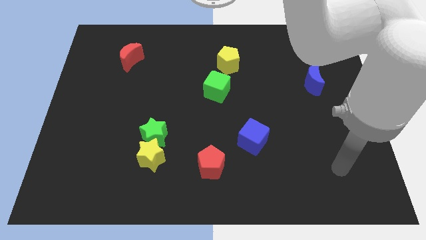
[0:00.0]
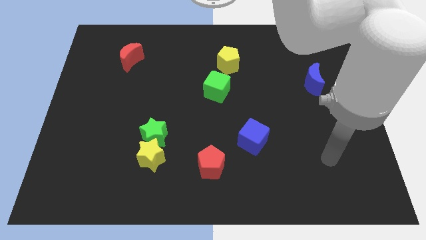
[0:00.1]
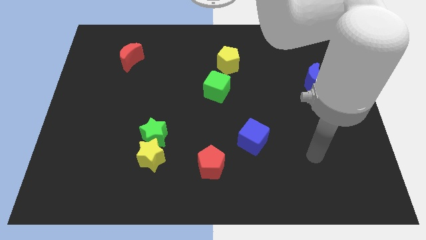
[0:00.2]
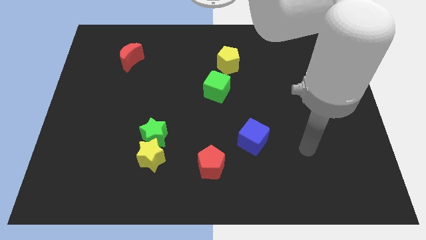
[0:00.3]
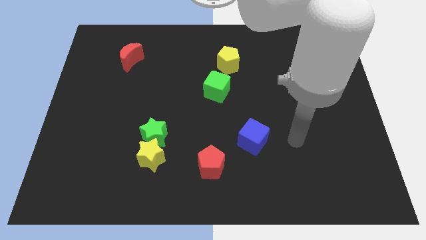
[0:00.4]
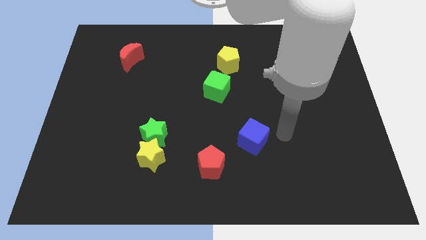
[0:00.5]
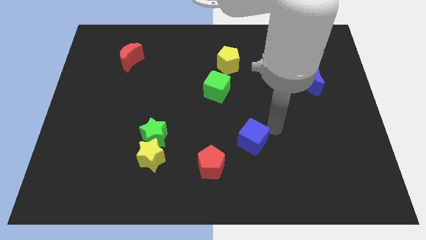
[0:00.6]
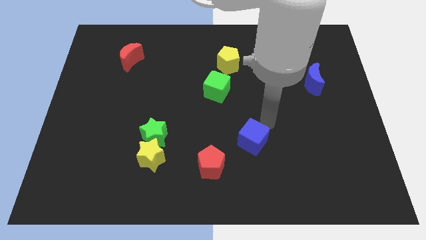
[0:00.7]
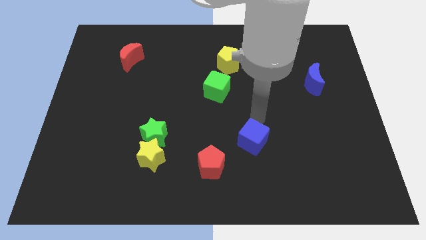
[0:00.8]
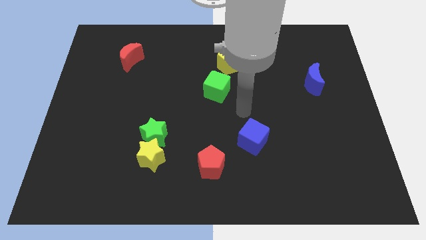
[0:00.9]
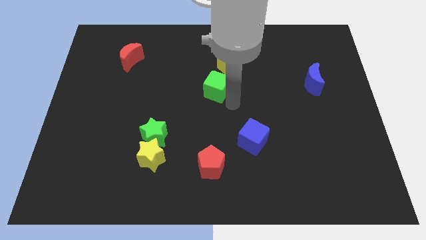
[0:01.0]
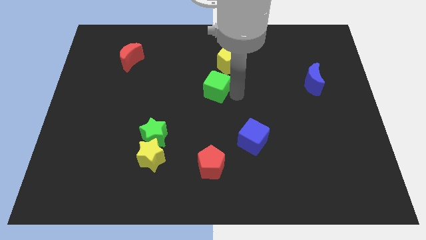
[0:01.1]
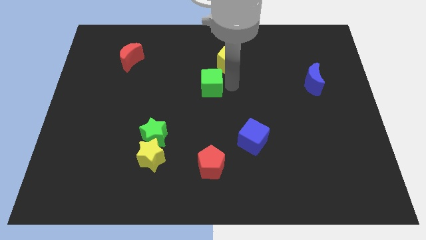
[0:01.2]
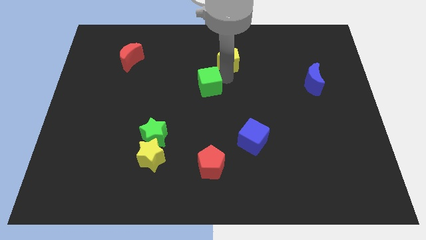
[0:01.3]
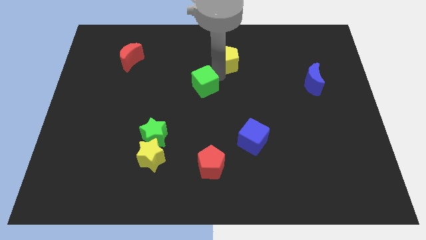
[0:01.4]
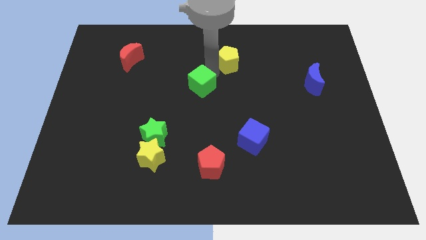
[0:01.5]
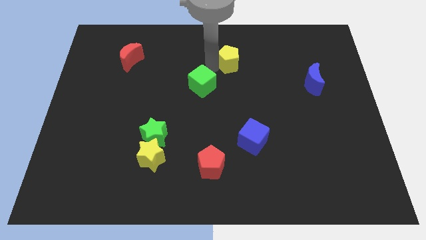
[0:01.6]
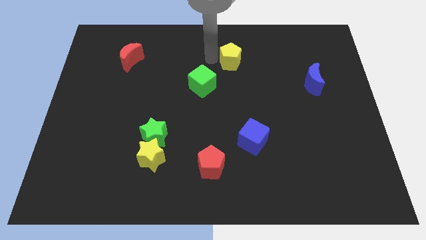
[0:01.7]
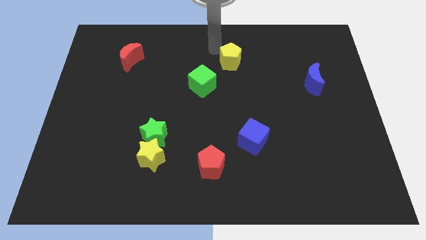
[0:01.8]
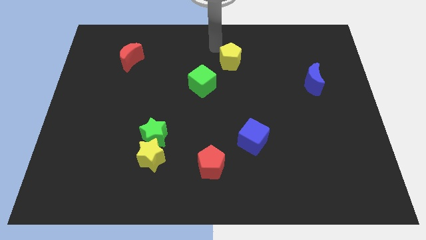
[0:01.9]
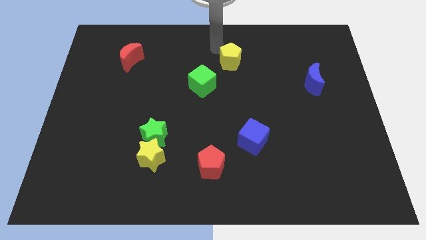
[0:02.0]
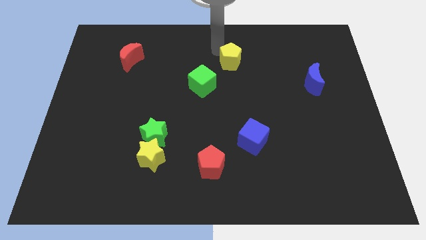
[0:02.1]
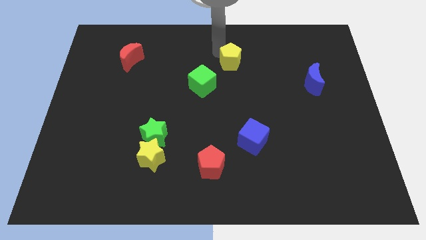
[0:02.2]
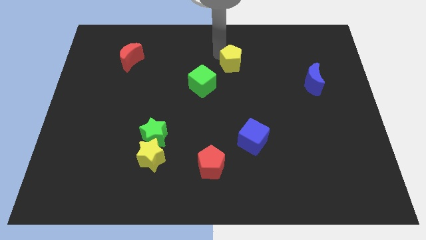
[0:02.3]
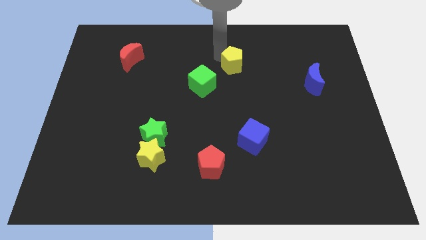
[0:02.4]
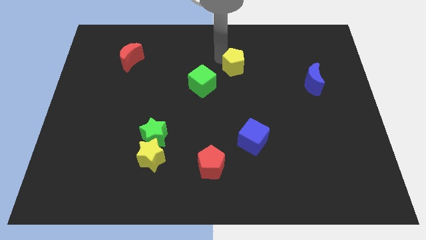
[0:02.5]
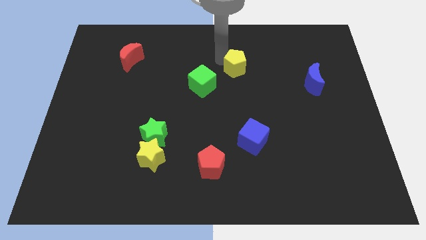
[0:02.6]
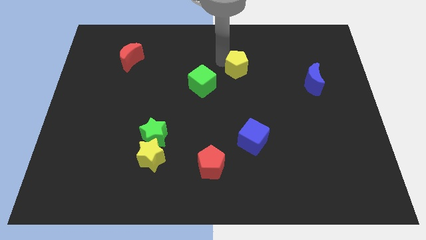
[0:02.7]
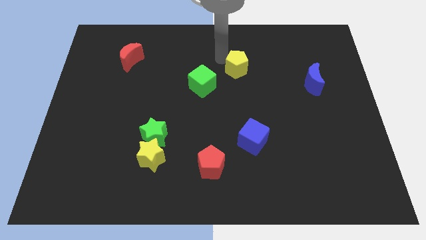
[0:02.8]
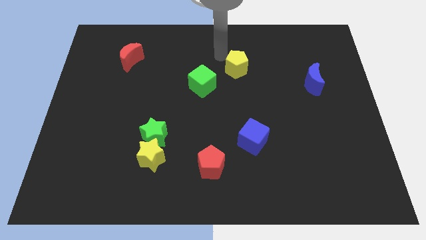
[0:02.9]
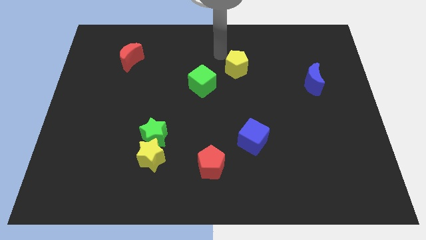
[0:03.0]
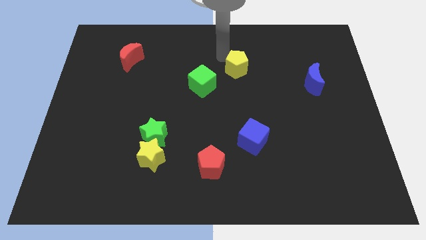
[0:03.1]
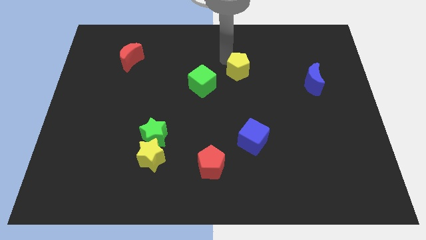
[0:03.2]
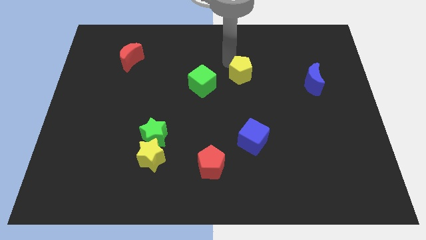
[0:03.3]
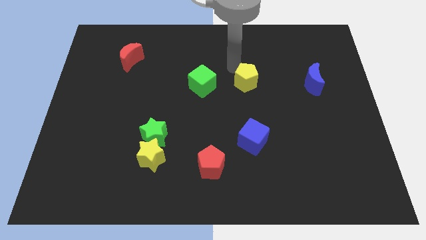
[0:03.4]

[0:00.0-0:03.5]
move the yellow pentagon a little bit downwards and to the right diagonally

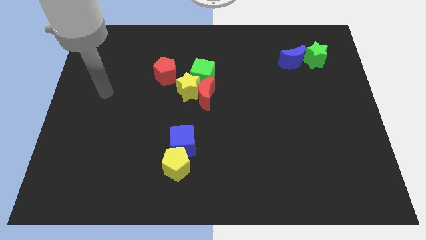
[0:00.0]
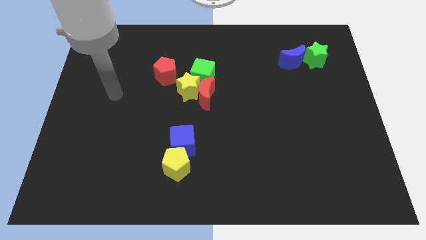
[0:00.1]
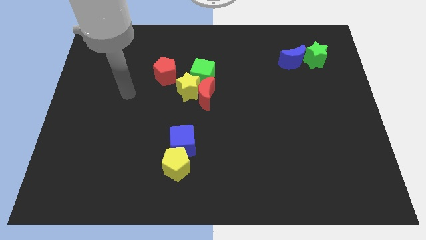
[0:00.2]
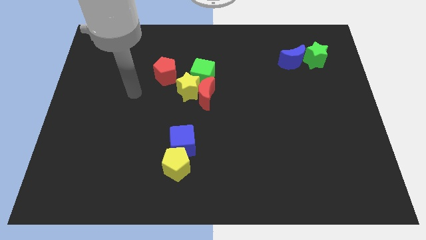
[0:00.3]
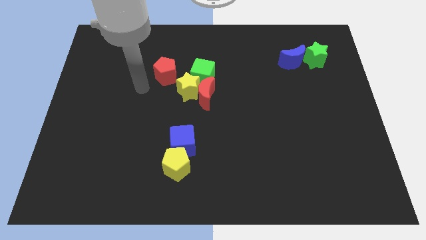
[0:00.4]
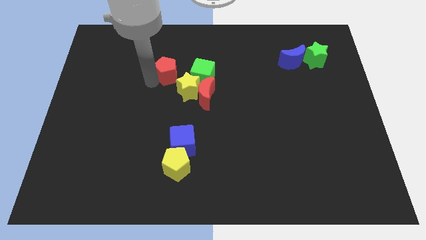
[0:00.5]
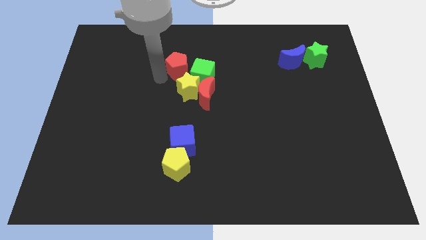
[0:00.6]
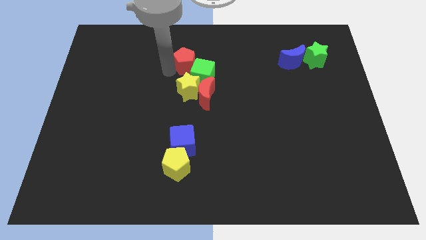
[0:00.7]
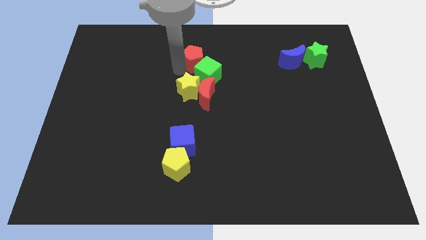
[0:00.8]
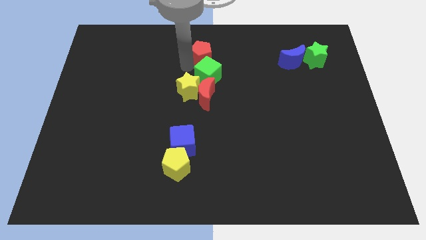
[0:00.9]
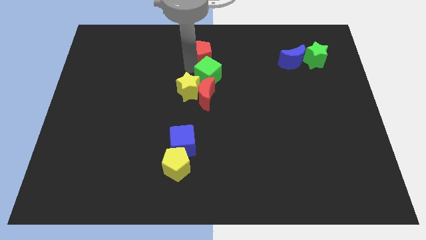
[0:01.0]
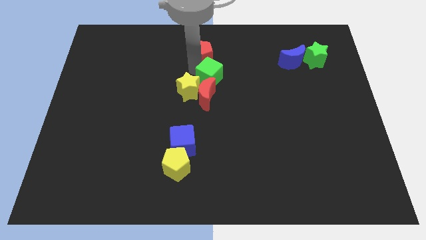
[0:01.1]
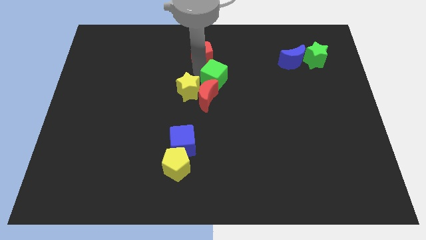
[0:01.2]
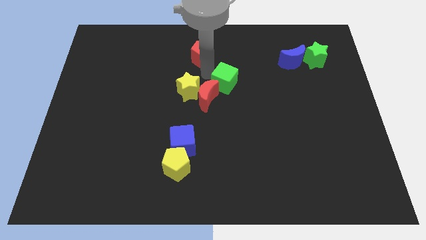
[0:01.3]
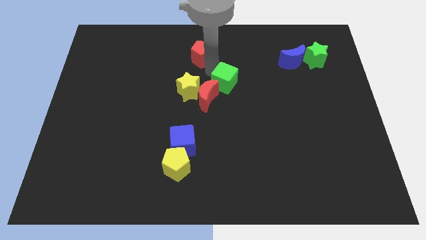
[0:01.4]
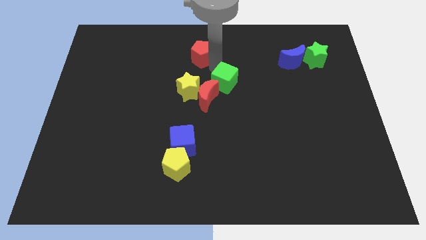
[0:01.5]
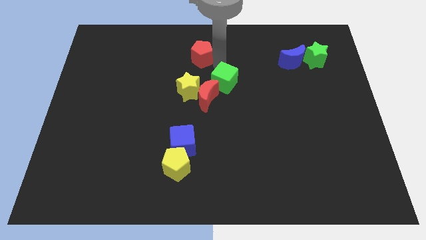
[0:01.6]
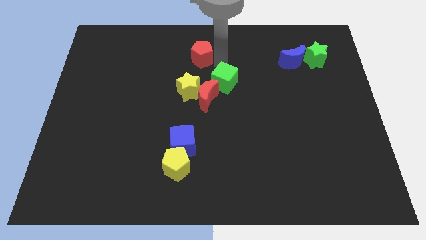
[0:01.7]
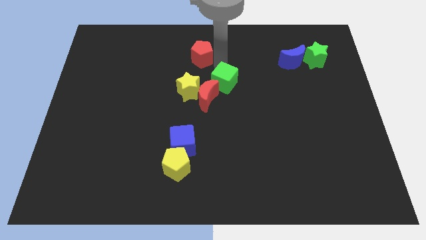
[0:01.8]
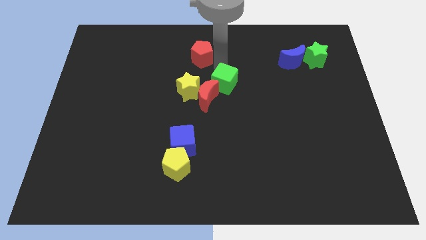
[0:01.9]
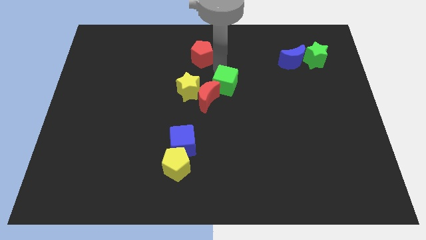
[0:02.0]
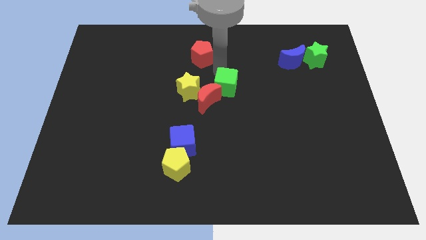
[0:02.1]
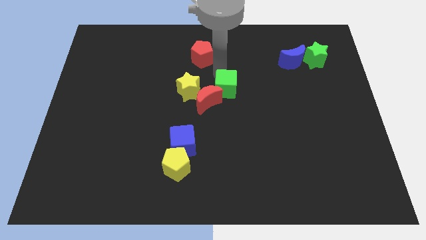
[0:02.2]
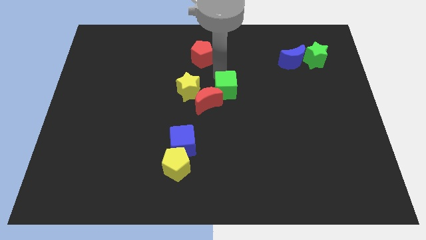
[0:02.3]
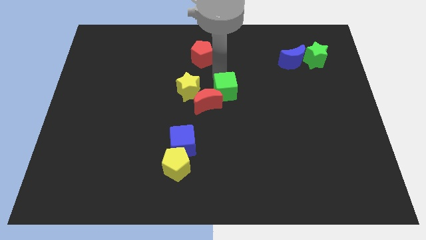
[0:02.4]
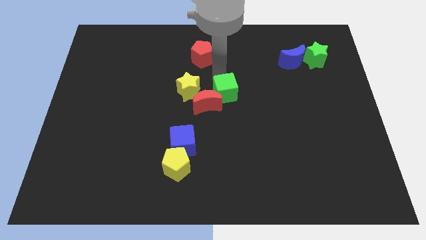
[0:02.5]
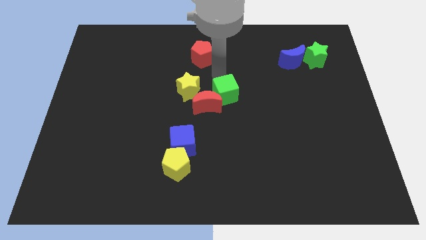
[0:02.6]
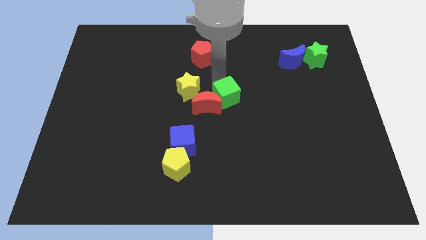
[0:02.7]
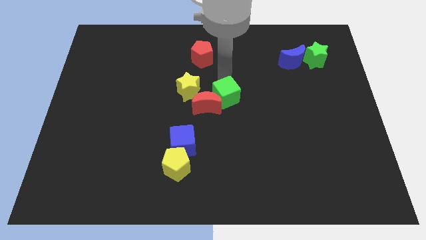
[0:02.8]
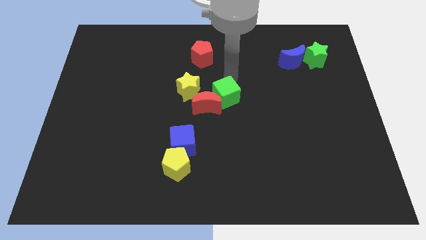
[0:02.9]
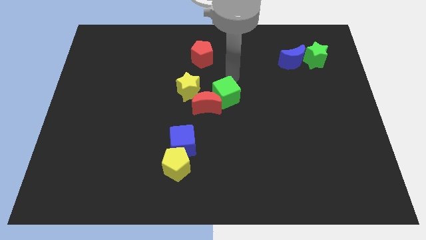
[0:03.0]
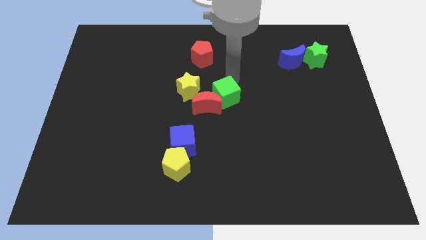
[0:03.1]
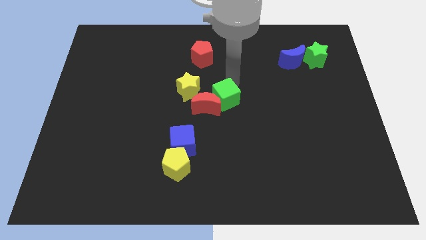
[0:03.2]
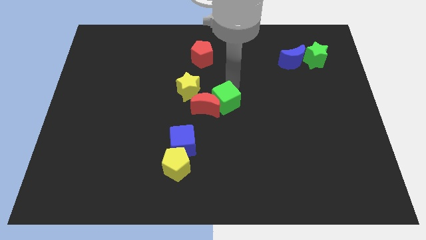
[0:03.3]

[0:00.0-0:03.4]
slightly slide the green cube downwards

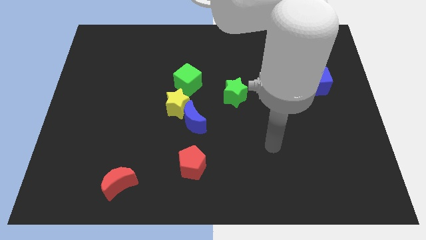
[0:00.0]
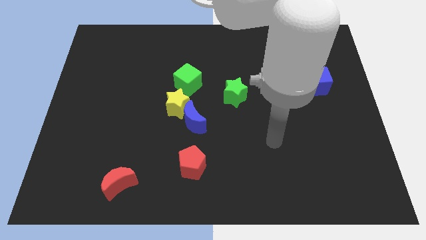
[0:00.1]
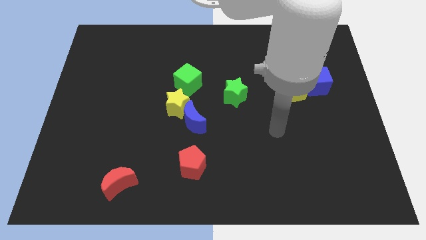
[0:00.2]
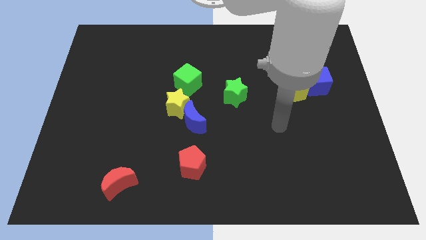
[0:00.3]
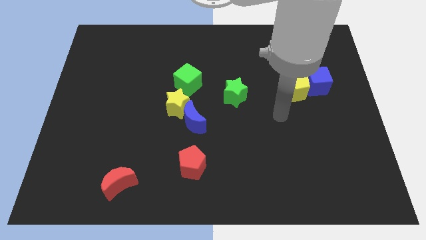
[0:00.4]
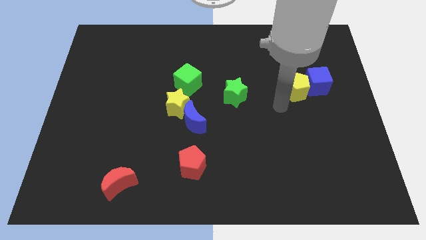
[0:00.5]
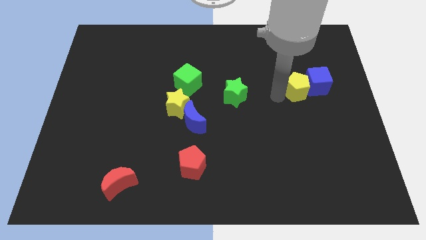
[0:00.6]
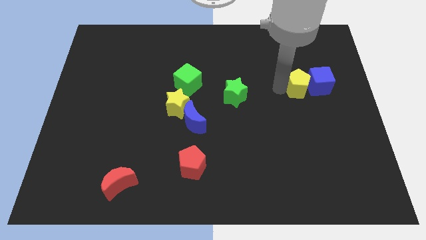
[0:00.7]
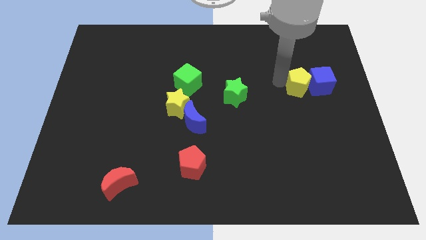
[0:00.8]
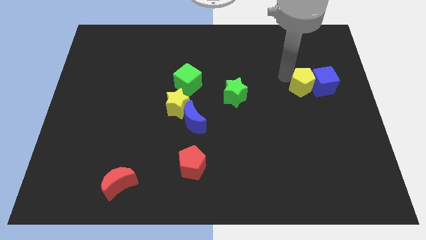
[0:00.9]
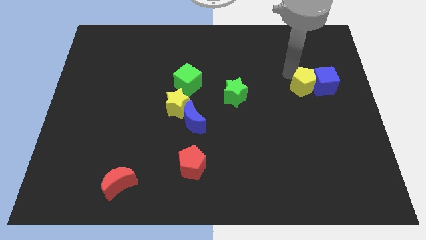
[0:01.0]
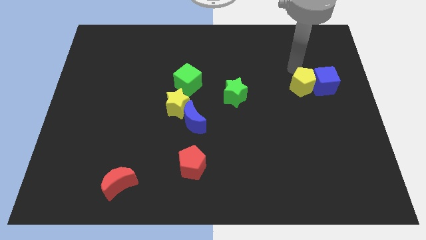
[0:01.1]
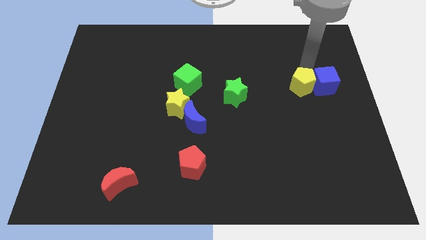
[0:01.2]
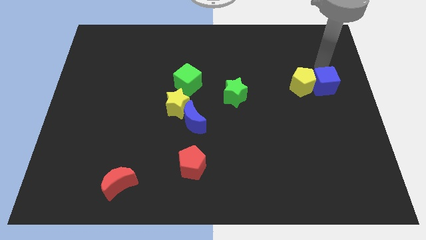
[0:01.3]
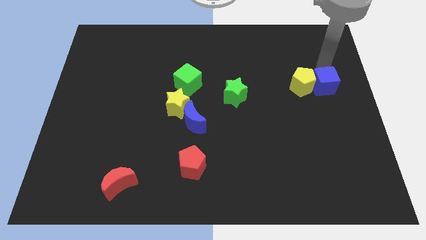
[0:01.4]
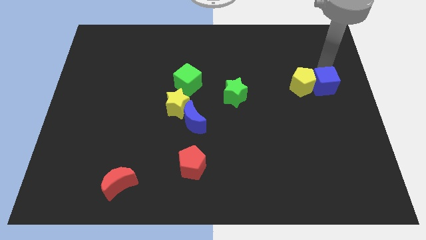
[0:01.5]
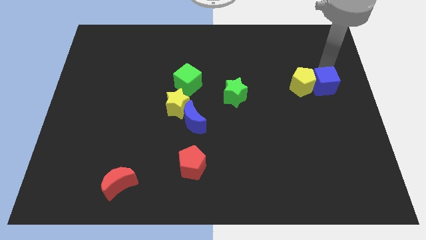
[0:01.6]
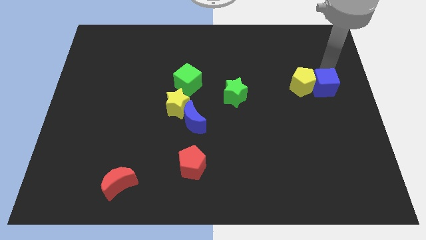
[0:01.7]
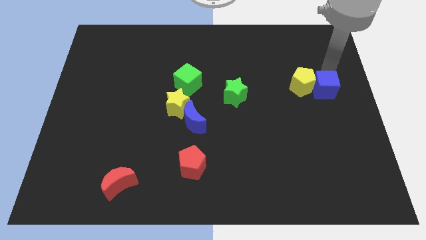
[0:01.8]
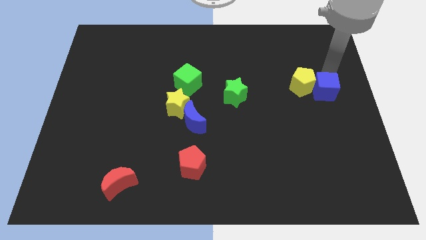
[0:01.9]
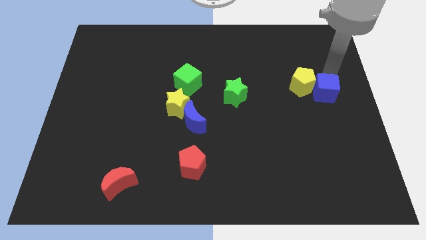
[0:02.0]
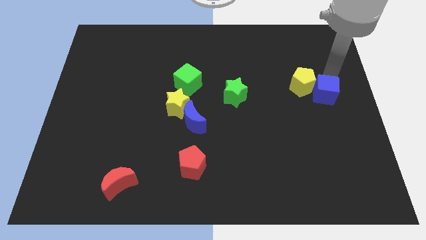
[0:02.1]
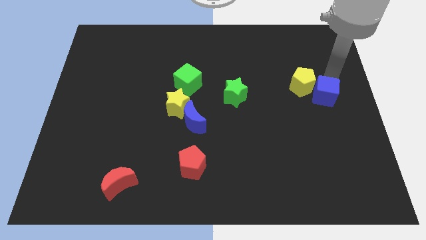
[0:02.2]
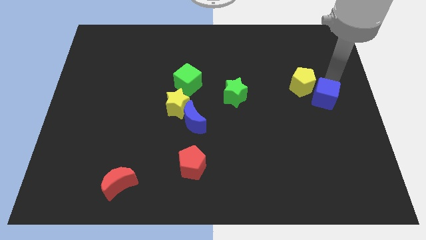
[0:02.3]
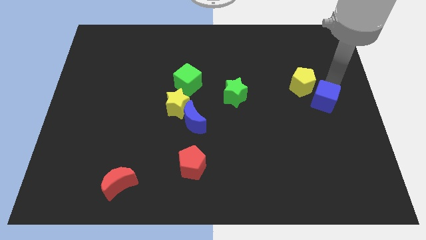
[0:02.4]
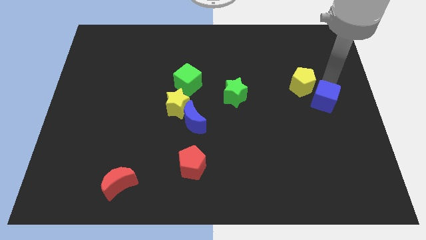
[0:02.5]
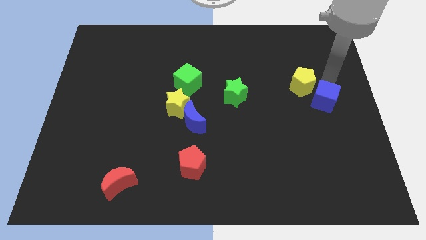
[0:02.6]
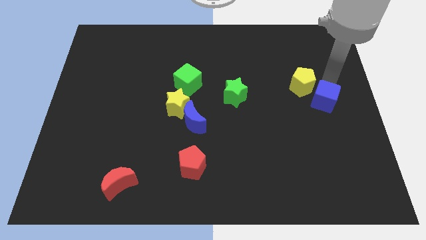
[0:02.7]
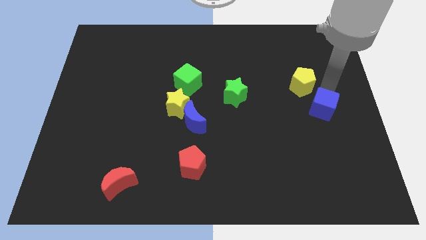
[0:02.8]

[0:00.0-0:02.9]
slide the blue cube a bit down
